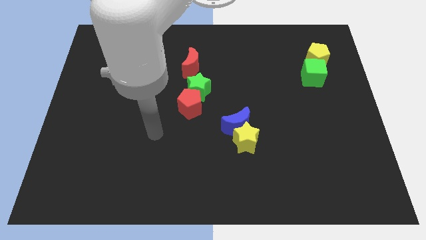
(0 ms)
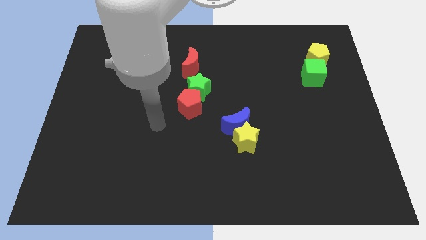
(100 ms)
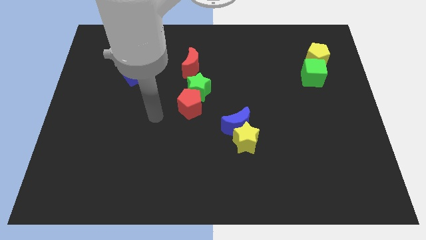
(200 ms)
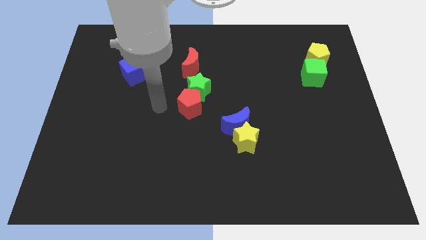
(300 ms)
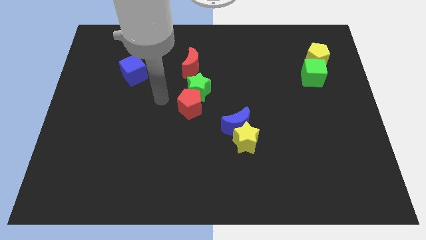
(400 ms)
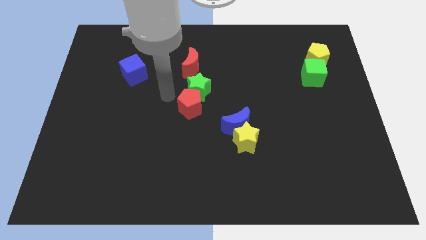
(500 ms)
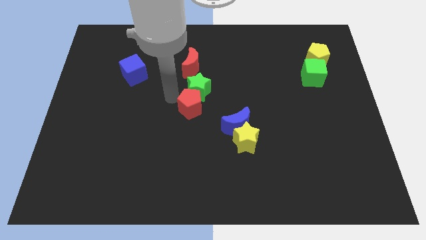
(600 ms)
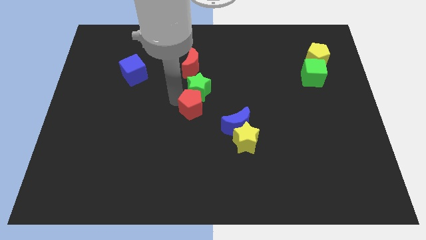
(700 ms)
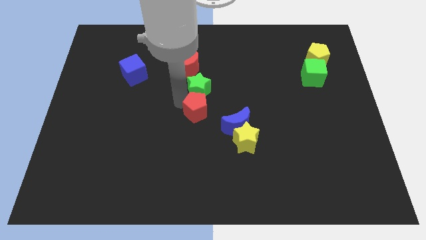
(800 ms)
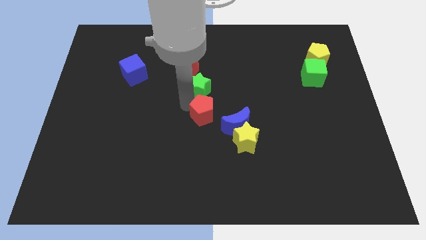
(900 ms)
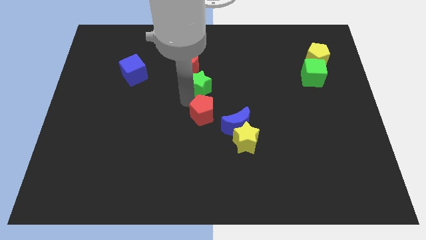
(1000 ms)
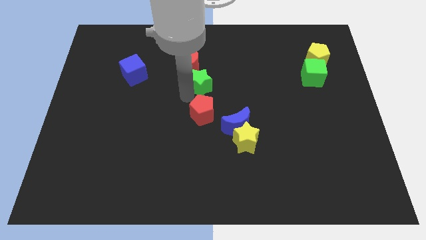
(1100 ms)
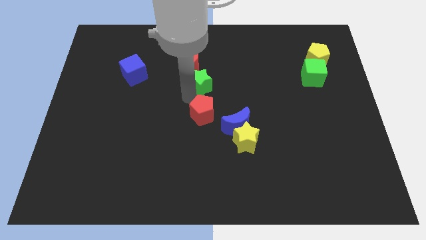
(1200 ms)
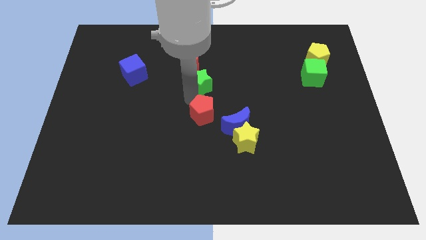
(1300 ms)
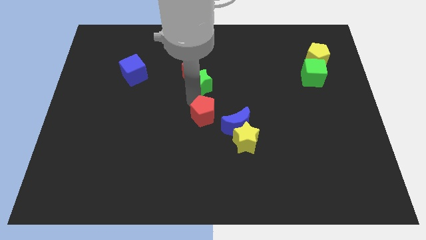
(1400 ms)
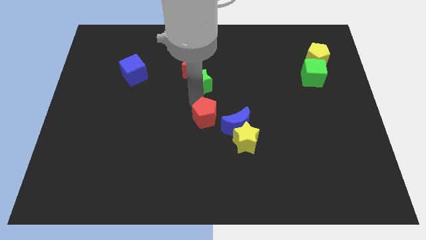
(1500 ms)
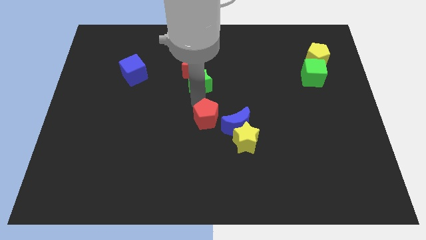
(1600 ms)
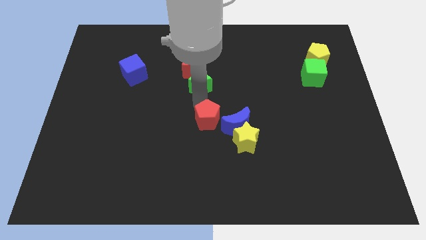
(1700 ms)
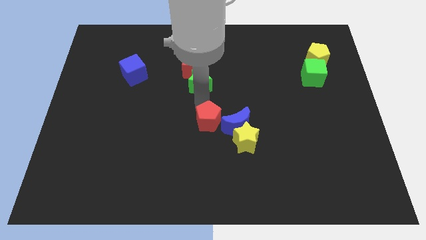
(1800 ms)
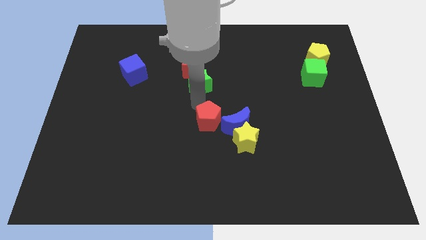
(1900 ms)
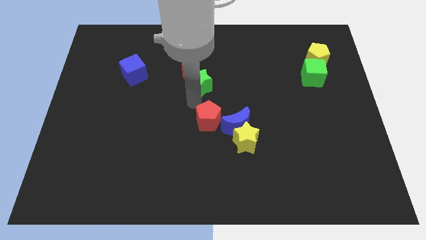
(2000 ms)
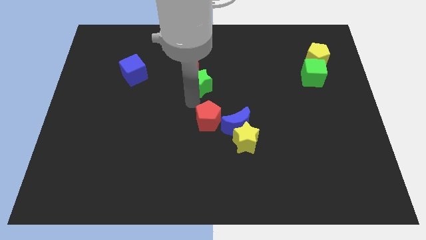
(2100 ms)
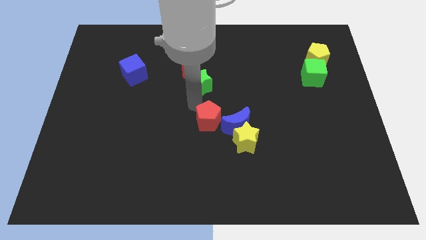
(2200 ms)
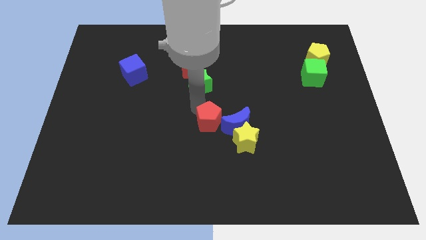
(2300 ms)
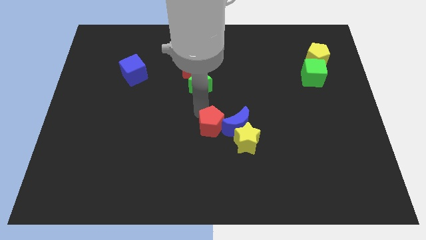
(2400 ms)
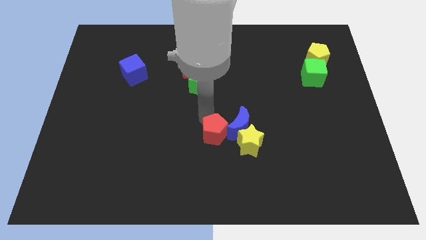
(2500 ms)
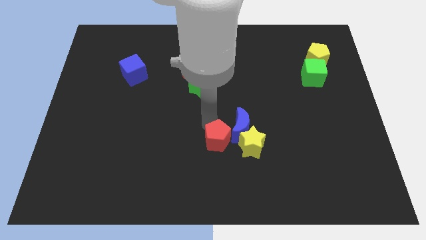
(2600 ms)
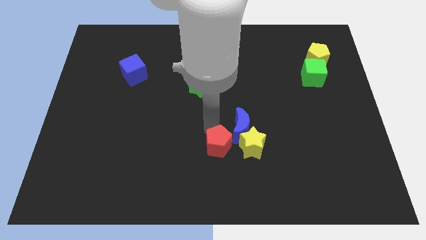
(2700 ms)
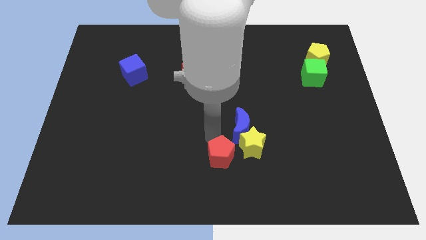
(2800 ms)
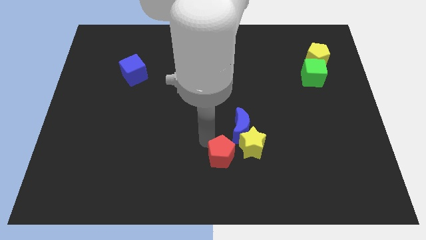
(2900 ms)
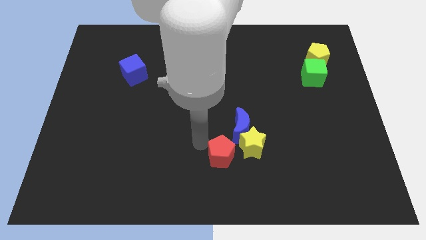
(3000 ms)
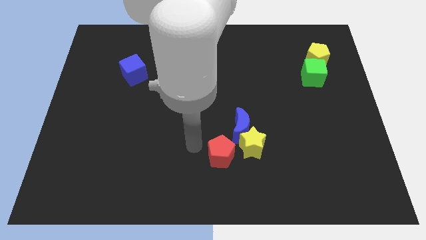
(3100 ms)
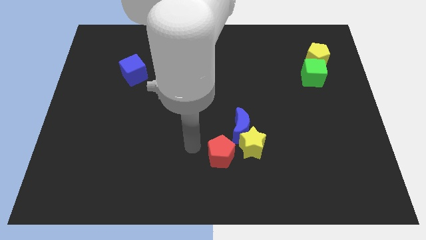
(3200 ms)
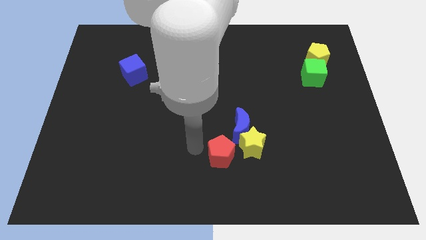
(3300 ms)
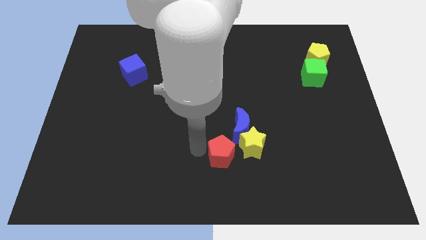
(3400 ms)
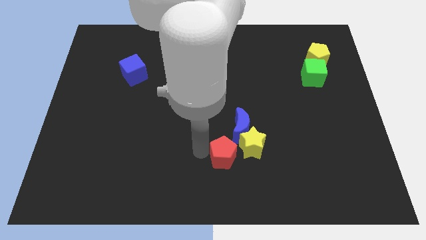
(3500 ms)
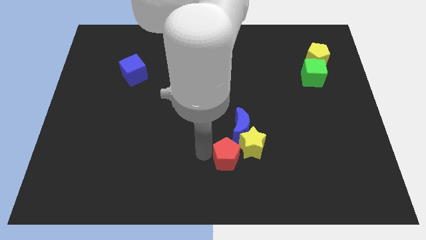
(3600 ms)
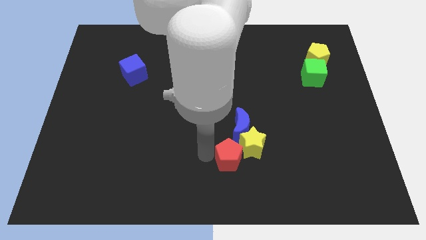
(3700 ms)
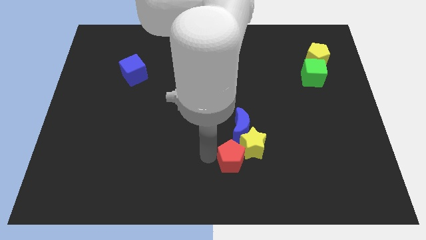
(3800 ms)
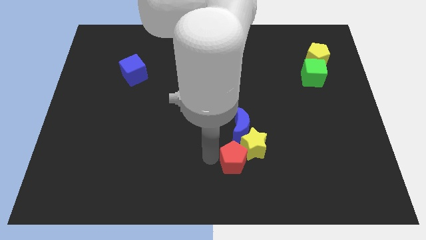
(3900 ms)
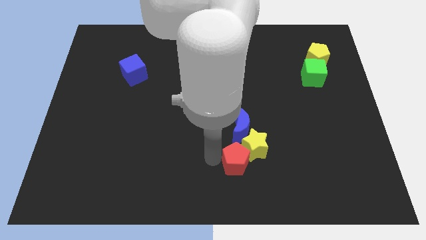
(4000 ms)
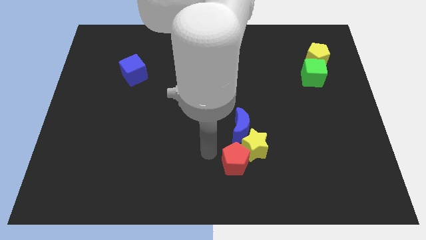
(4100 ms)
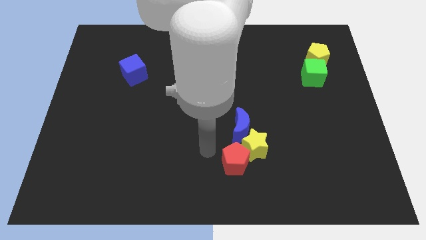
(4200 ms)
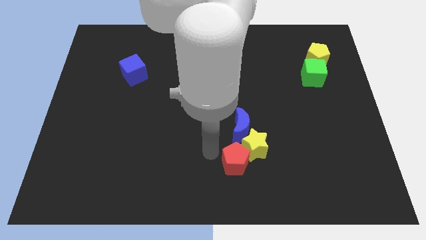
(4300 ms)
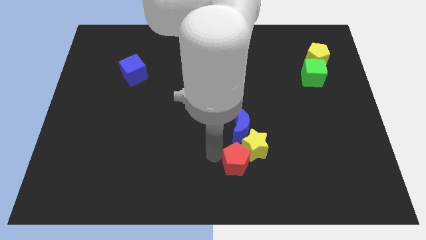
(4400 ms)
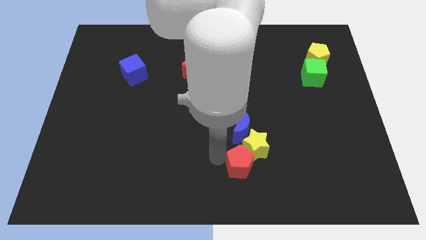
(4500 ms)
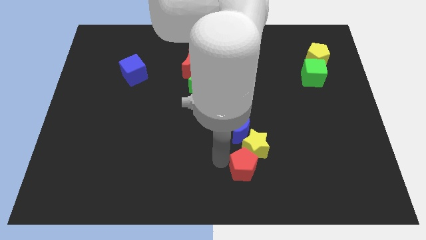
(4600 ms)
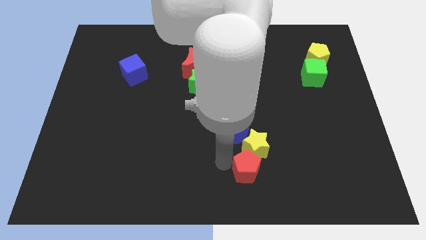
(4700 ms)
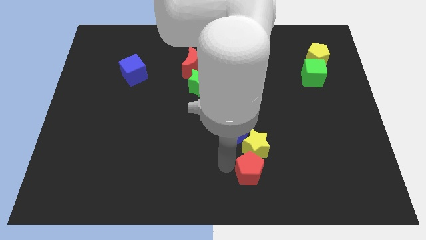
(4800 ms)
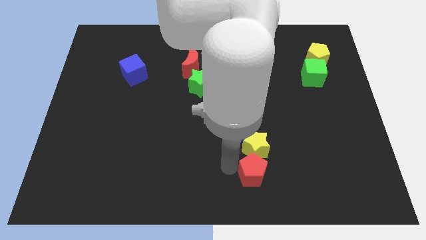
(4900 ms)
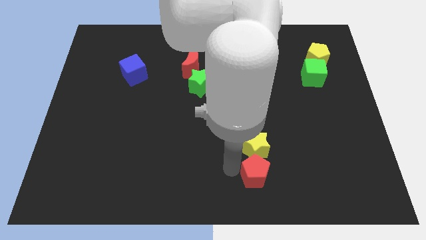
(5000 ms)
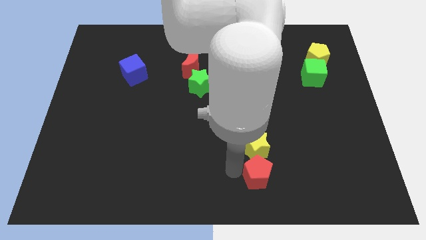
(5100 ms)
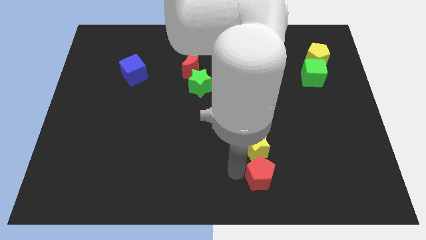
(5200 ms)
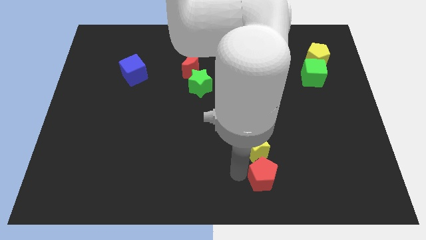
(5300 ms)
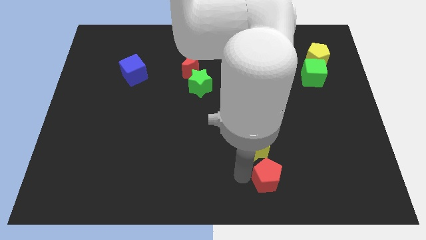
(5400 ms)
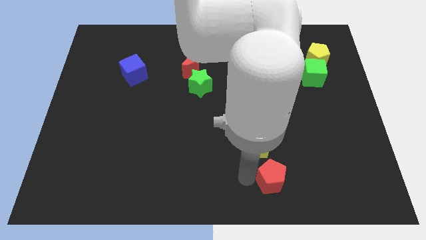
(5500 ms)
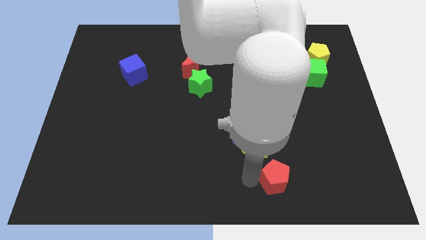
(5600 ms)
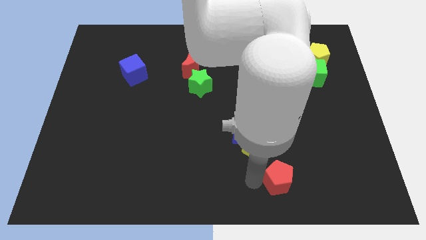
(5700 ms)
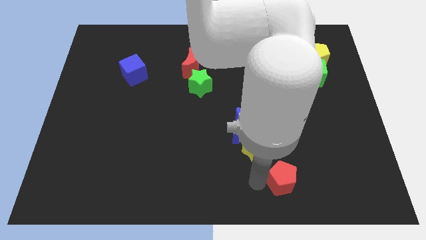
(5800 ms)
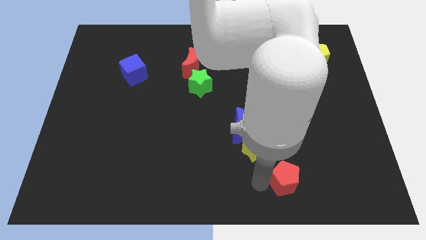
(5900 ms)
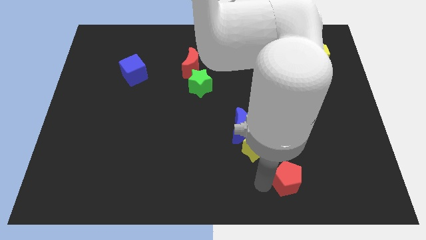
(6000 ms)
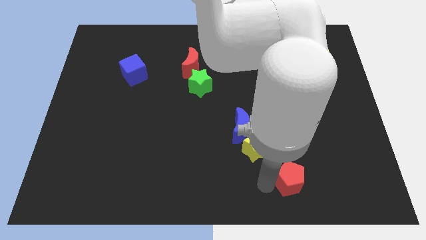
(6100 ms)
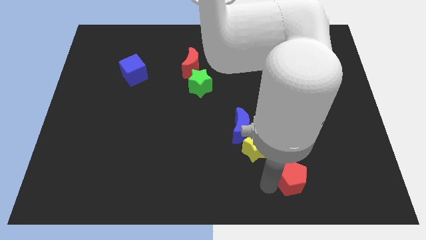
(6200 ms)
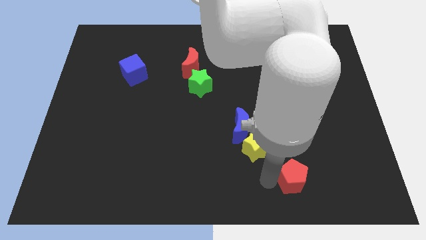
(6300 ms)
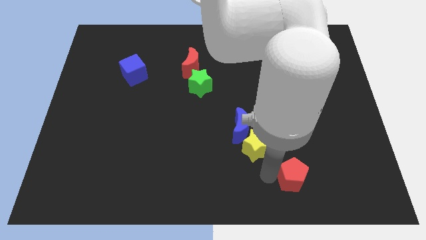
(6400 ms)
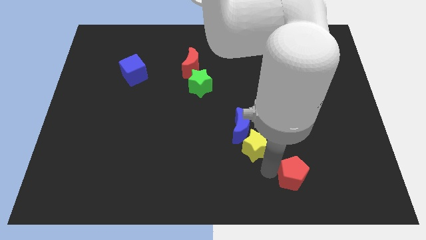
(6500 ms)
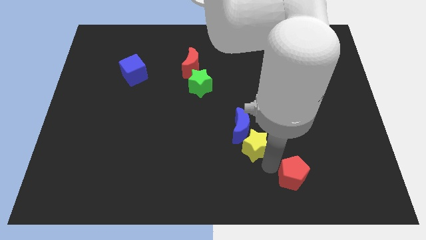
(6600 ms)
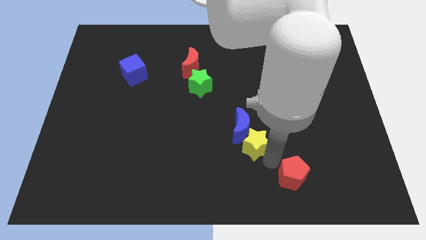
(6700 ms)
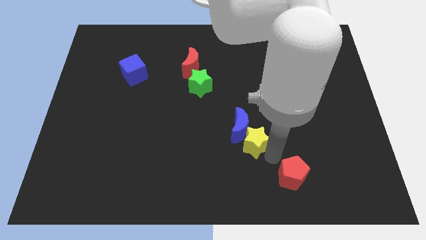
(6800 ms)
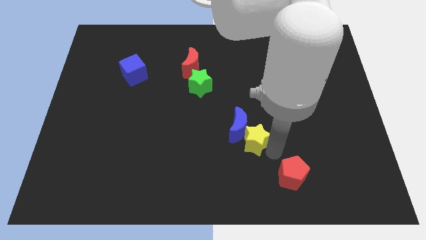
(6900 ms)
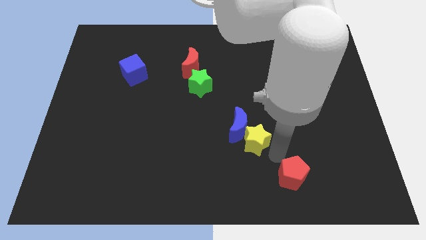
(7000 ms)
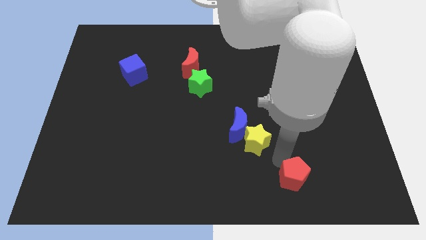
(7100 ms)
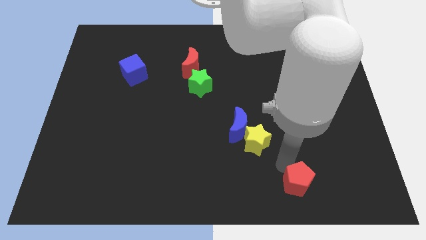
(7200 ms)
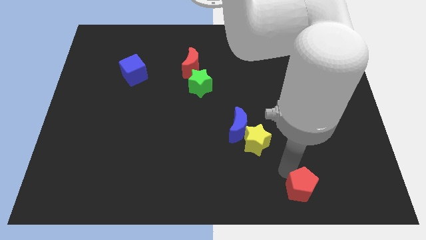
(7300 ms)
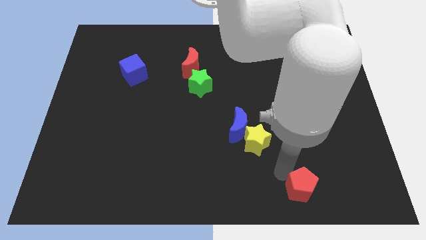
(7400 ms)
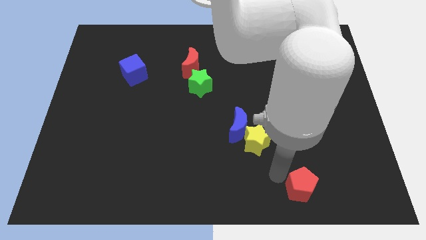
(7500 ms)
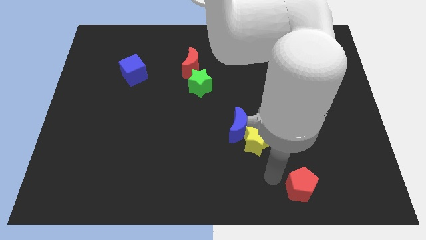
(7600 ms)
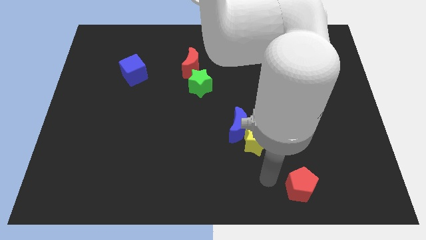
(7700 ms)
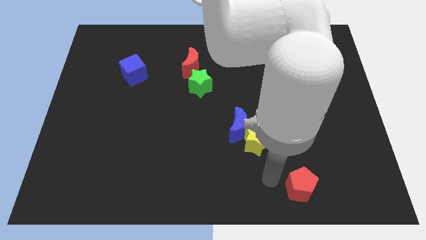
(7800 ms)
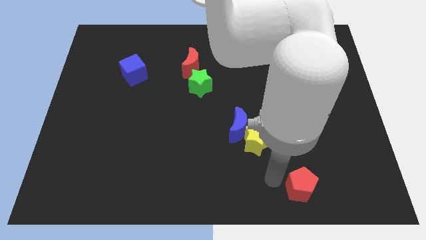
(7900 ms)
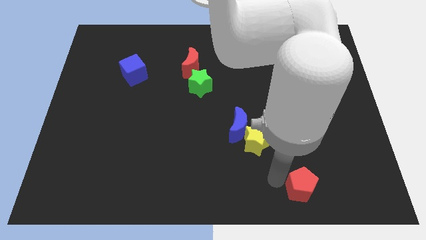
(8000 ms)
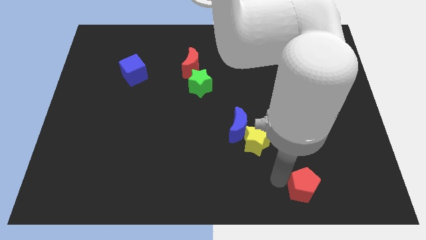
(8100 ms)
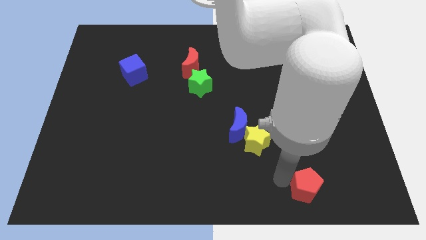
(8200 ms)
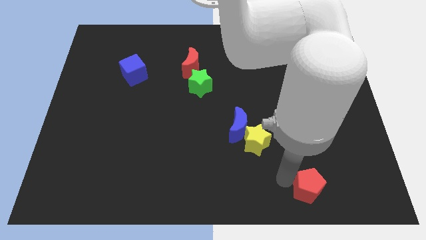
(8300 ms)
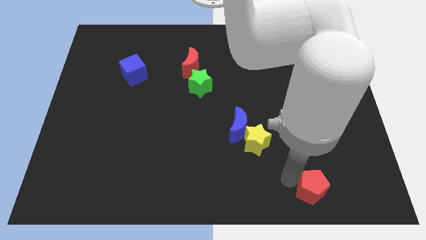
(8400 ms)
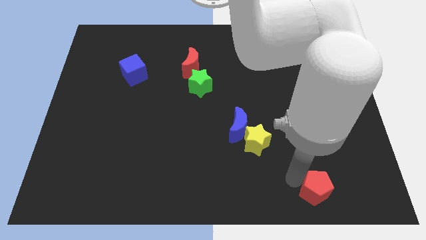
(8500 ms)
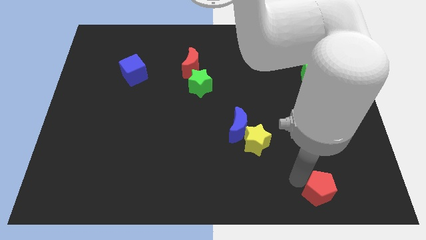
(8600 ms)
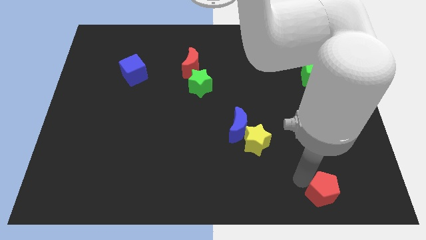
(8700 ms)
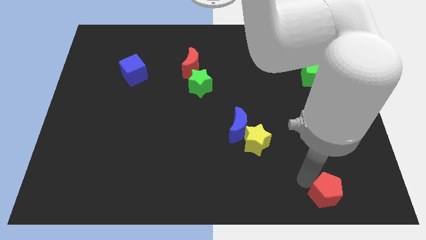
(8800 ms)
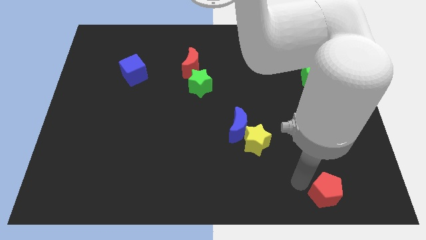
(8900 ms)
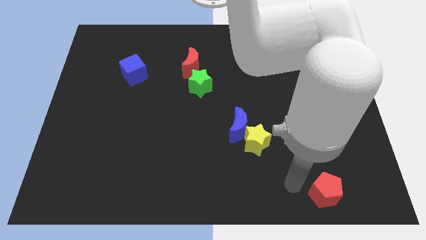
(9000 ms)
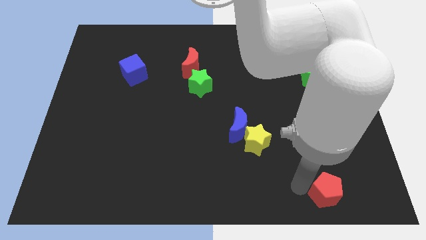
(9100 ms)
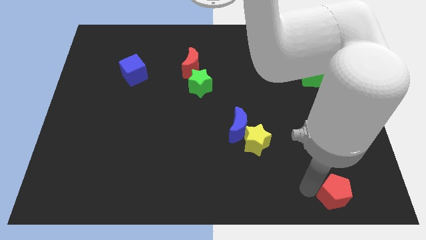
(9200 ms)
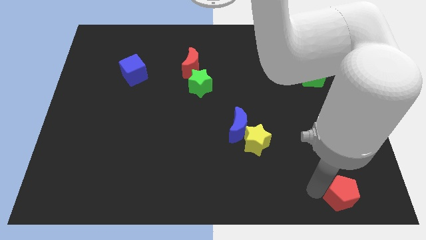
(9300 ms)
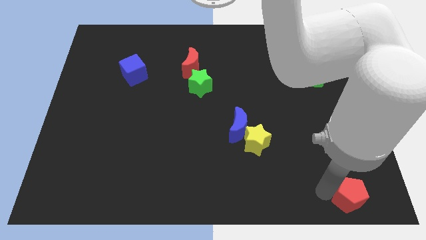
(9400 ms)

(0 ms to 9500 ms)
slide the red pentagon to the bottom right corner
